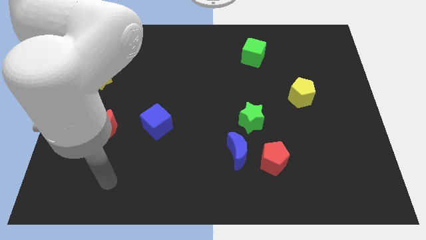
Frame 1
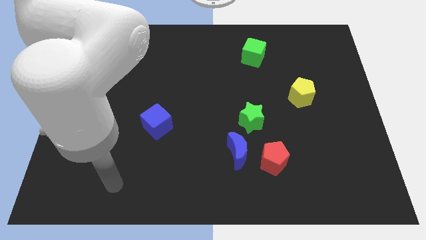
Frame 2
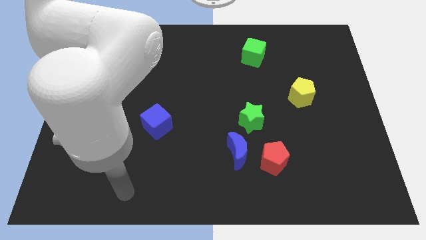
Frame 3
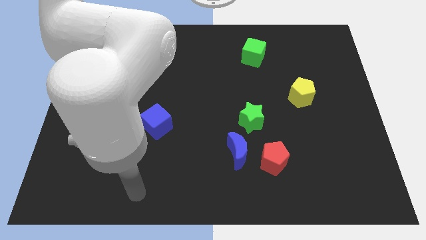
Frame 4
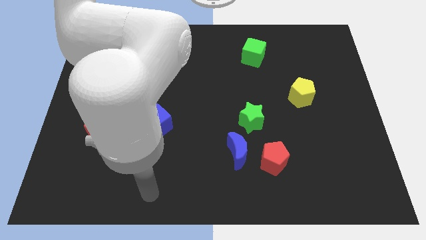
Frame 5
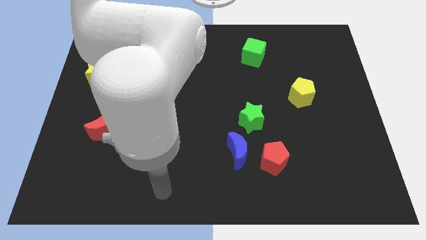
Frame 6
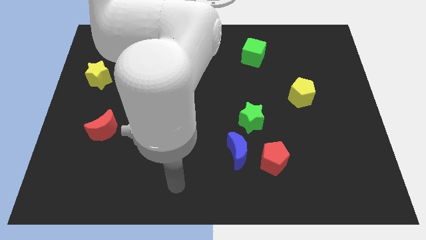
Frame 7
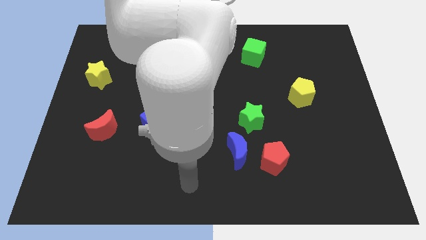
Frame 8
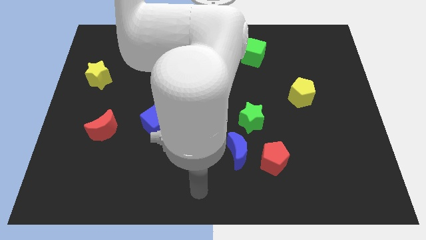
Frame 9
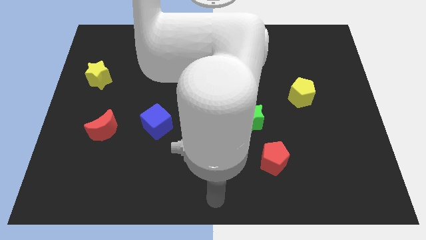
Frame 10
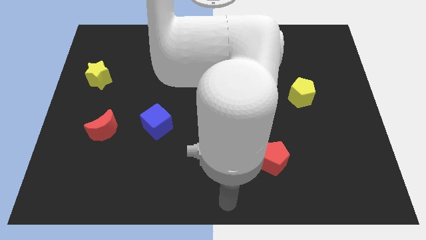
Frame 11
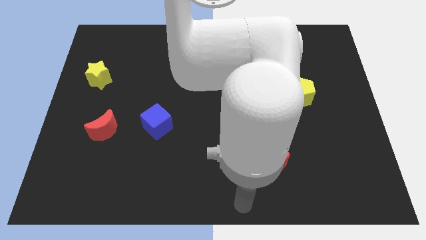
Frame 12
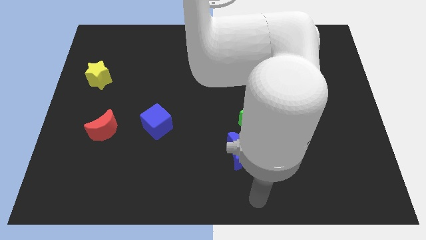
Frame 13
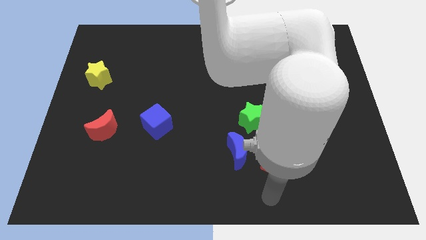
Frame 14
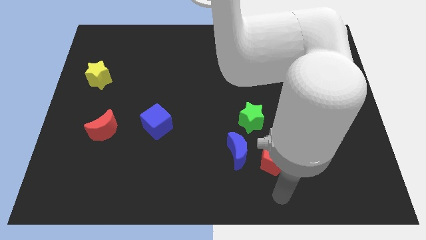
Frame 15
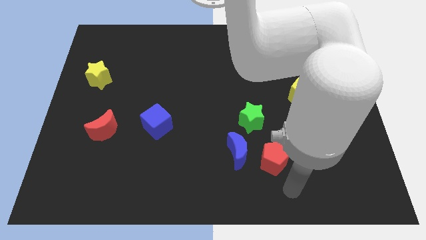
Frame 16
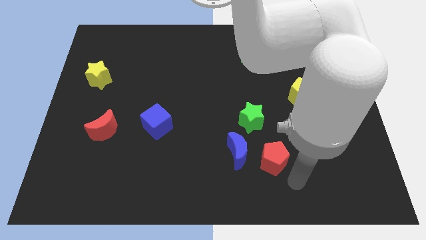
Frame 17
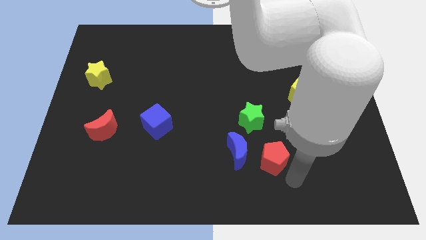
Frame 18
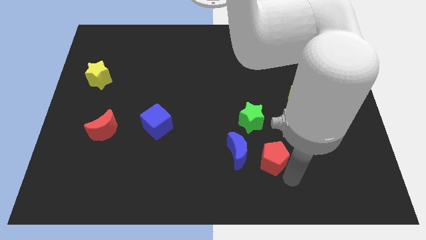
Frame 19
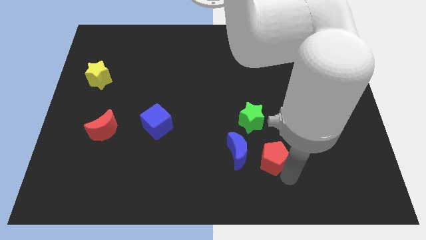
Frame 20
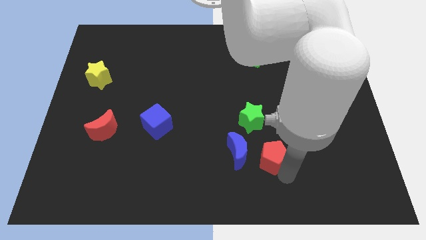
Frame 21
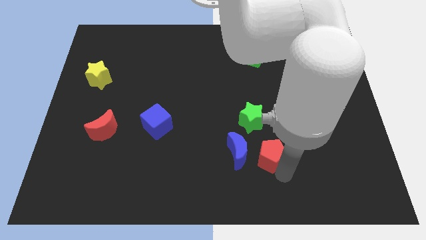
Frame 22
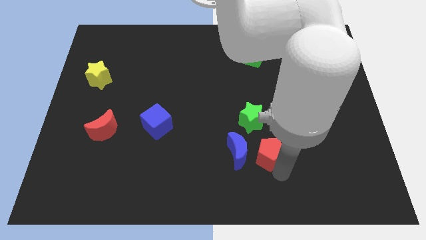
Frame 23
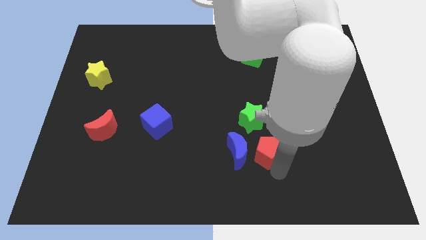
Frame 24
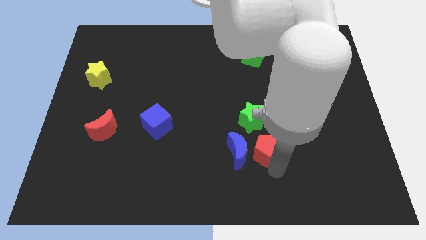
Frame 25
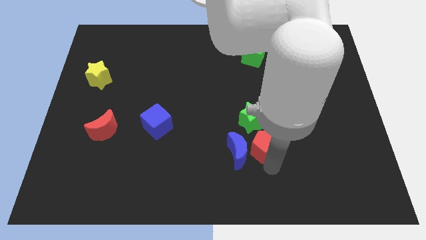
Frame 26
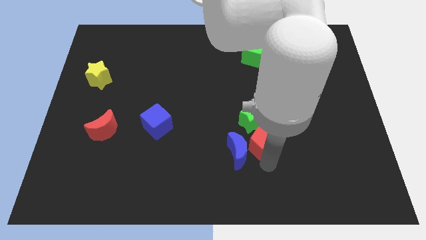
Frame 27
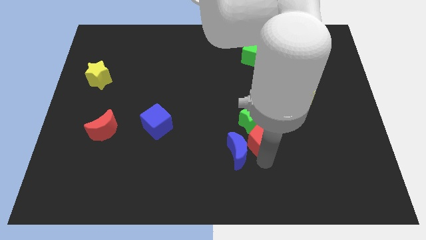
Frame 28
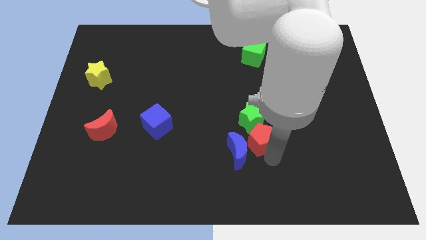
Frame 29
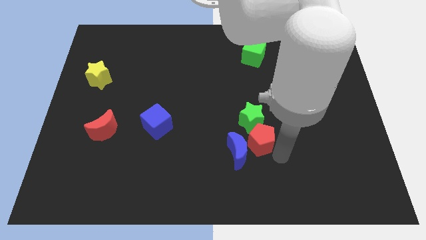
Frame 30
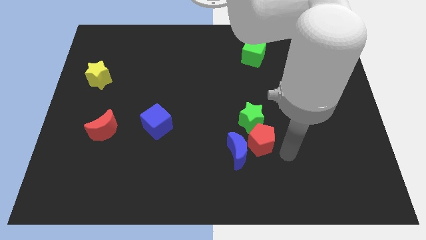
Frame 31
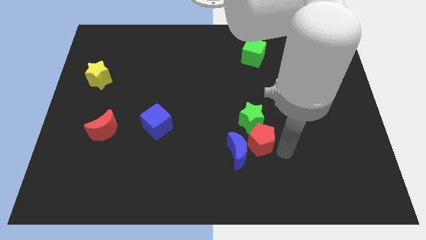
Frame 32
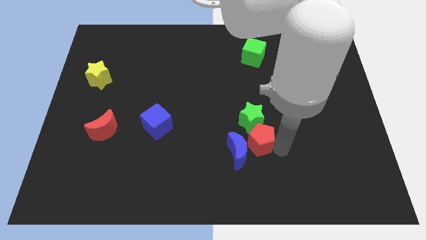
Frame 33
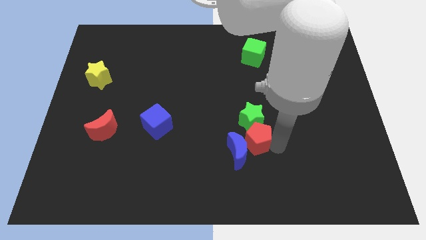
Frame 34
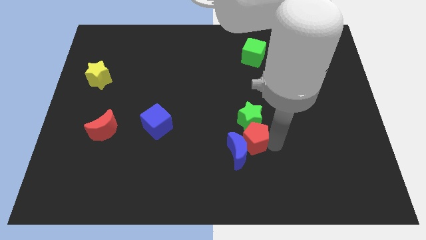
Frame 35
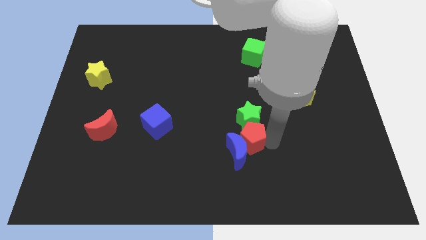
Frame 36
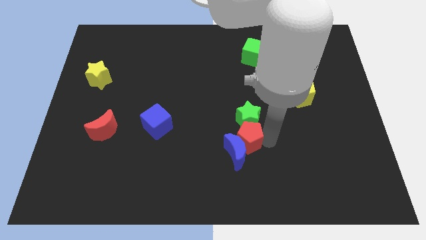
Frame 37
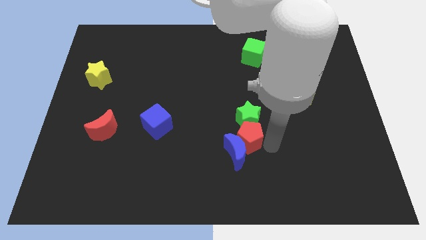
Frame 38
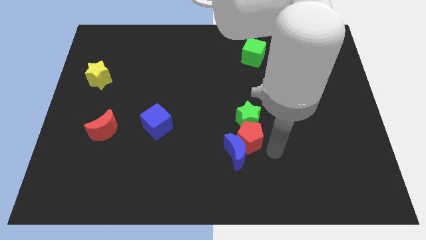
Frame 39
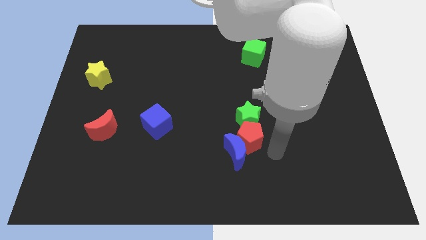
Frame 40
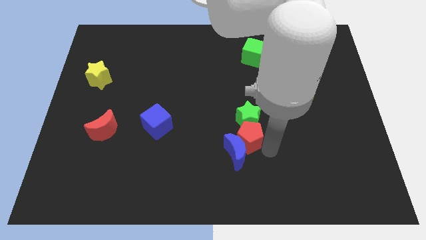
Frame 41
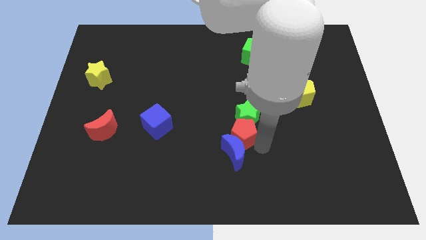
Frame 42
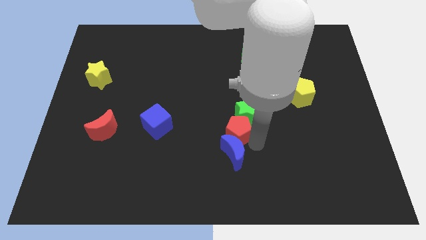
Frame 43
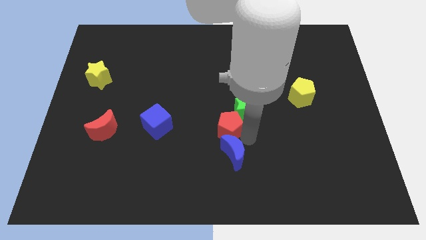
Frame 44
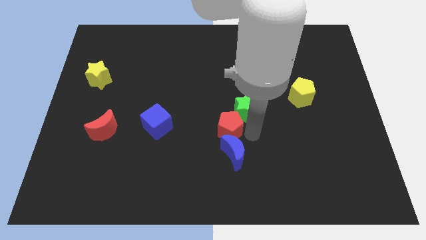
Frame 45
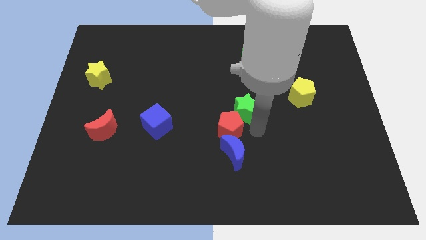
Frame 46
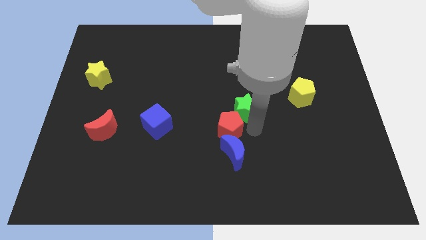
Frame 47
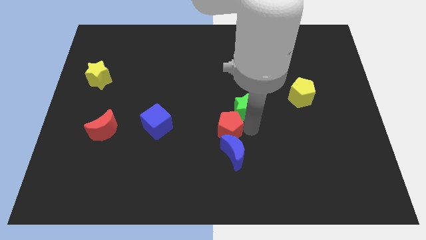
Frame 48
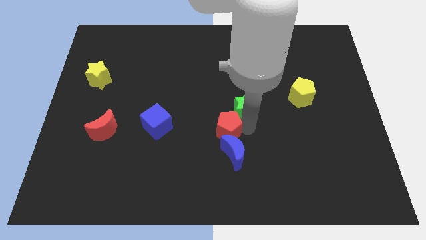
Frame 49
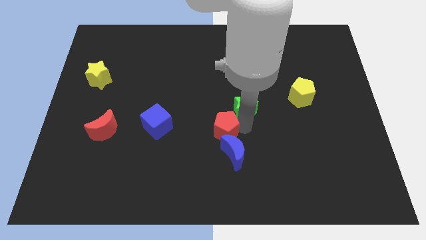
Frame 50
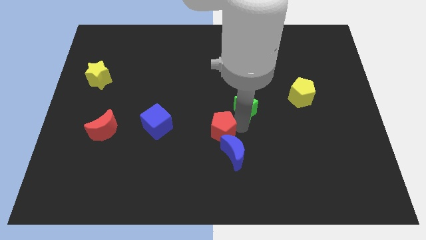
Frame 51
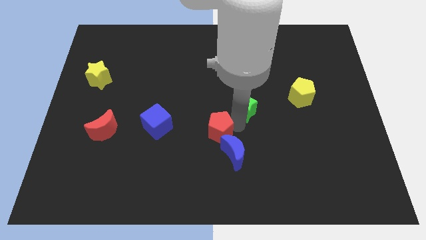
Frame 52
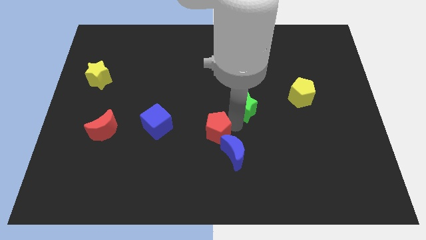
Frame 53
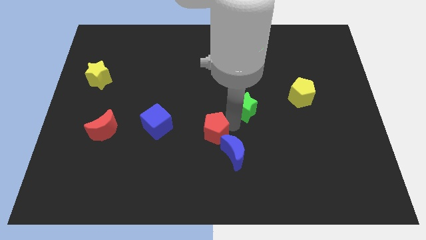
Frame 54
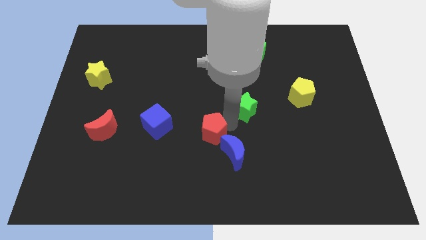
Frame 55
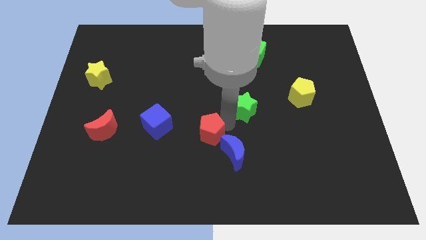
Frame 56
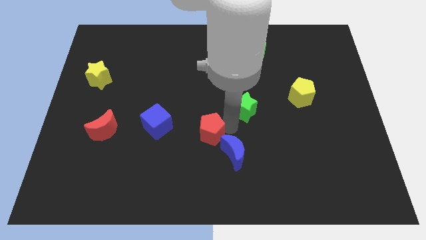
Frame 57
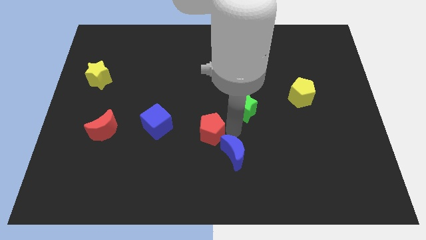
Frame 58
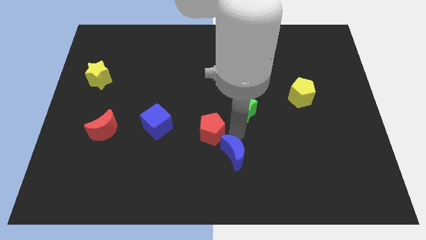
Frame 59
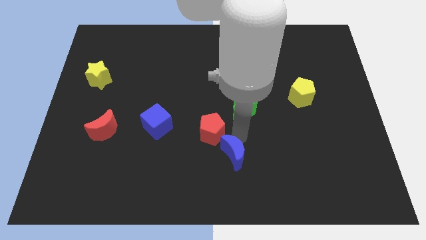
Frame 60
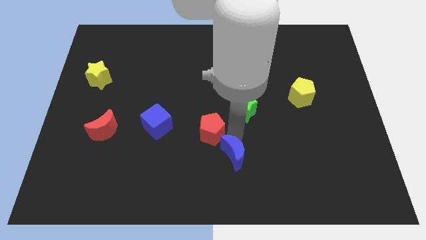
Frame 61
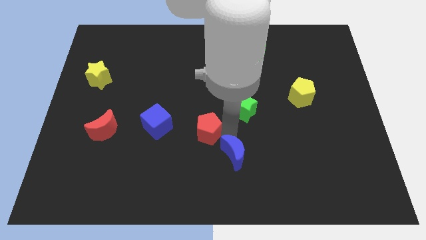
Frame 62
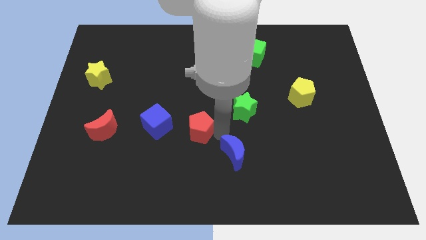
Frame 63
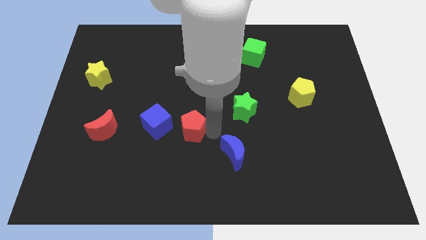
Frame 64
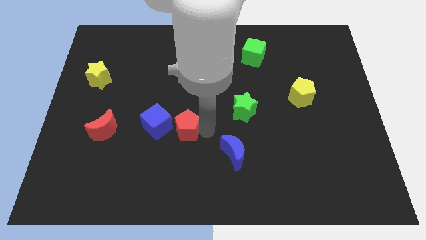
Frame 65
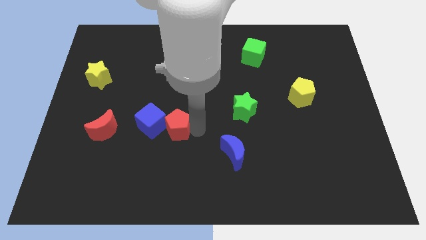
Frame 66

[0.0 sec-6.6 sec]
move the red pentagon just right of the red moon
